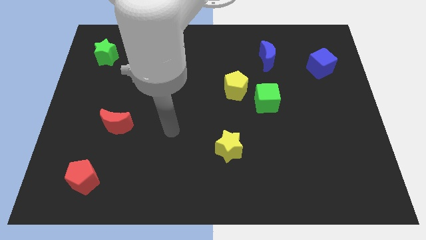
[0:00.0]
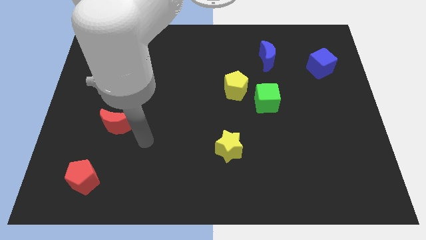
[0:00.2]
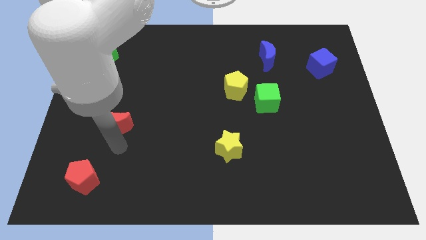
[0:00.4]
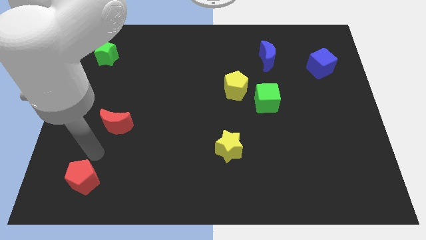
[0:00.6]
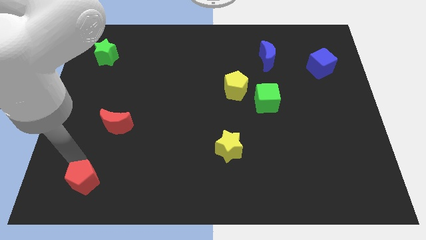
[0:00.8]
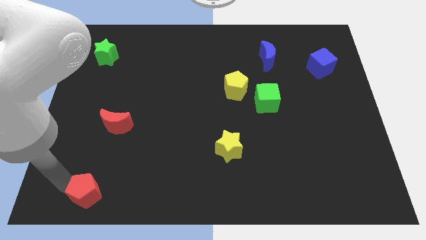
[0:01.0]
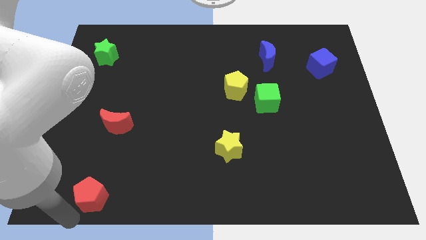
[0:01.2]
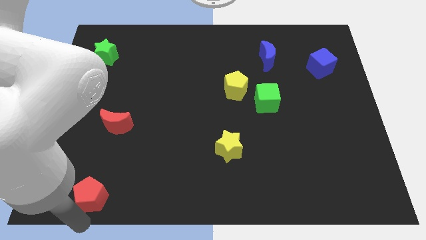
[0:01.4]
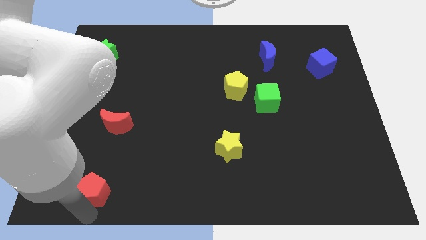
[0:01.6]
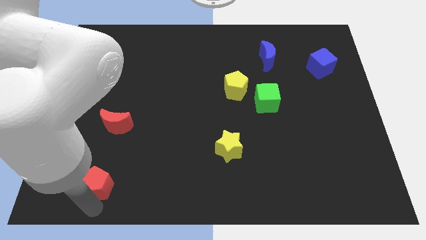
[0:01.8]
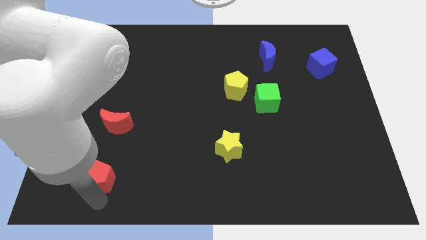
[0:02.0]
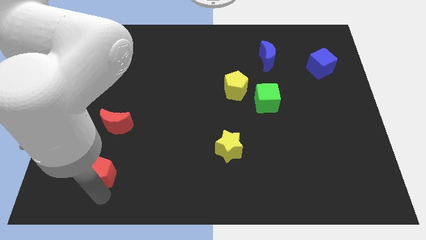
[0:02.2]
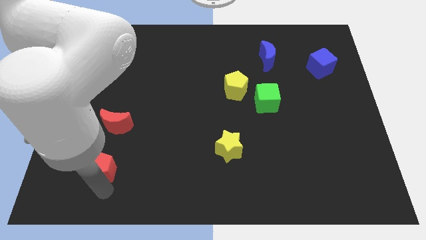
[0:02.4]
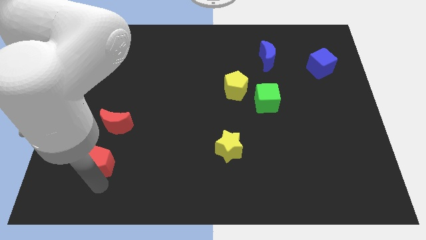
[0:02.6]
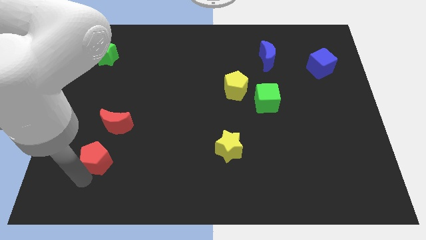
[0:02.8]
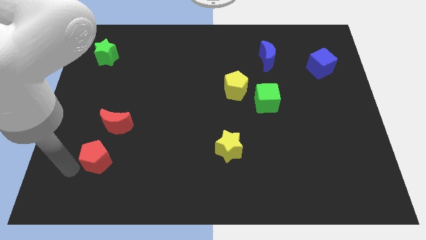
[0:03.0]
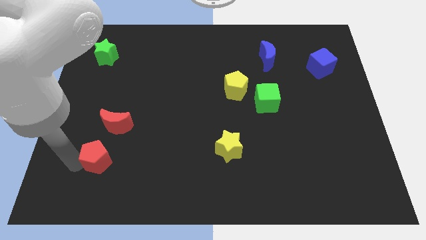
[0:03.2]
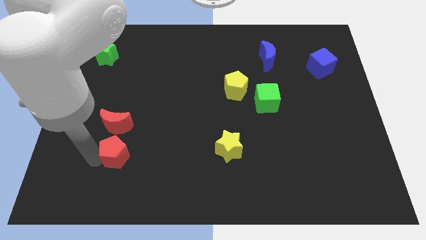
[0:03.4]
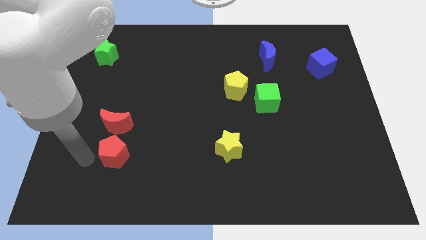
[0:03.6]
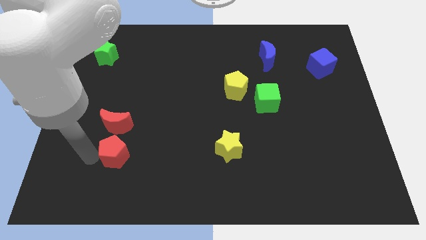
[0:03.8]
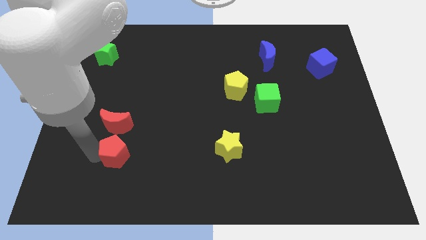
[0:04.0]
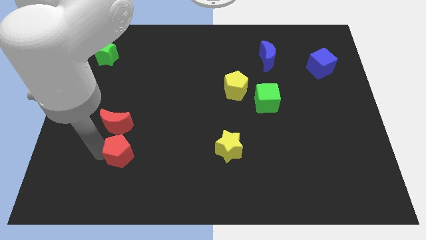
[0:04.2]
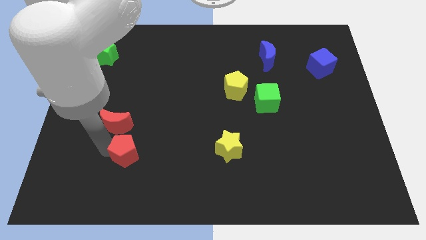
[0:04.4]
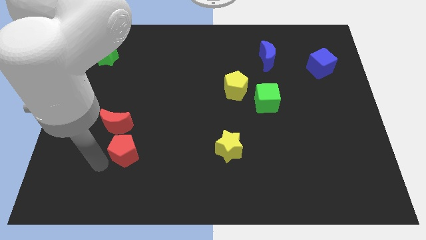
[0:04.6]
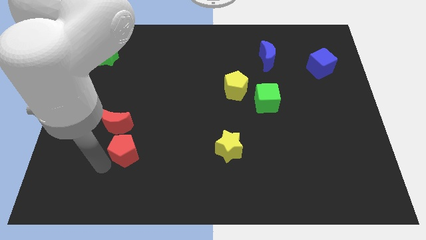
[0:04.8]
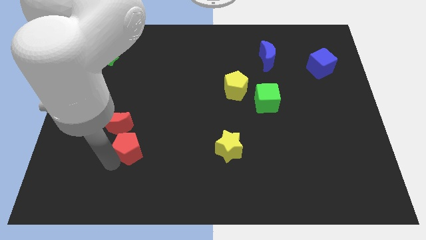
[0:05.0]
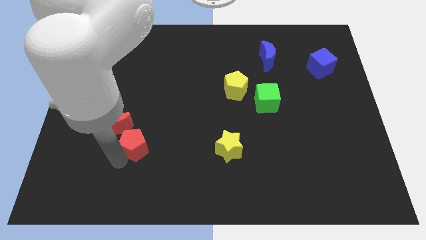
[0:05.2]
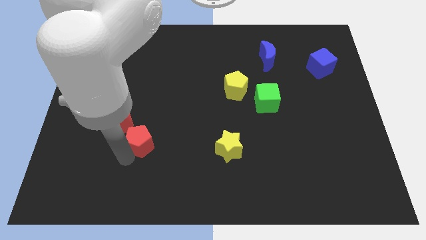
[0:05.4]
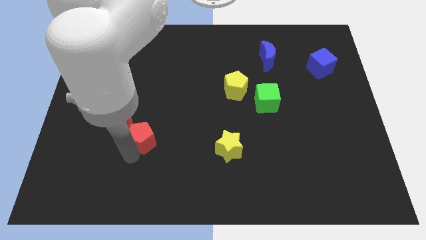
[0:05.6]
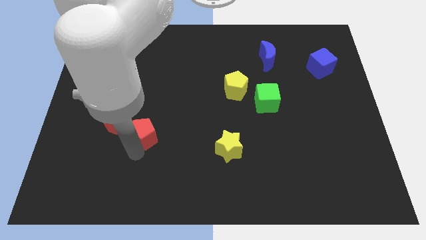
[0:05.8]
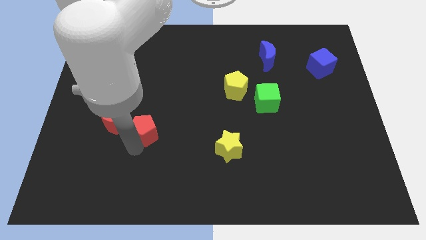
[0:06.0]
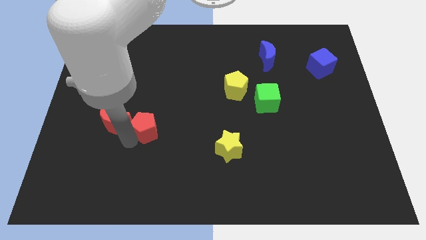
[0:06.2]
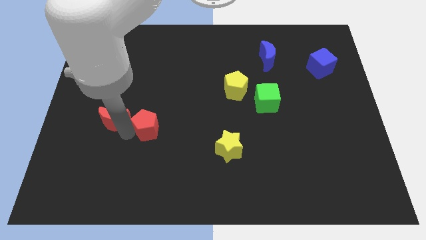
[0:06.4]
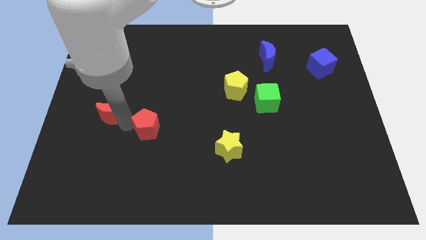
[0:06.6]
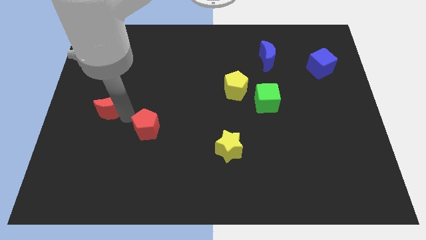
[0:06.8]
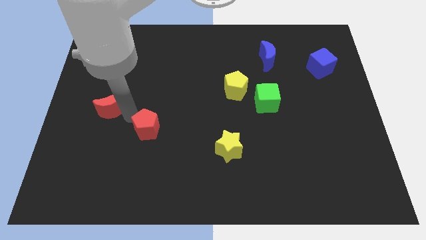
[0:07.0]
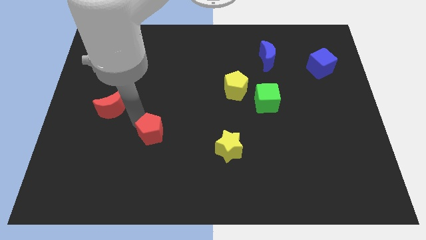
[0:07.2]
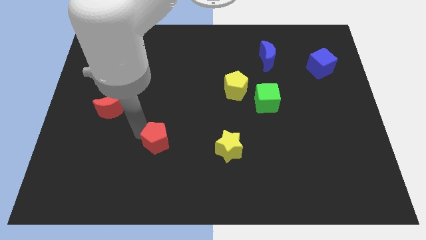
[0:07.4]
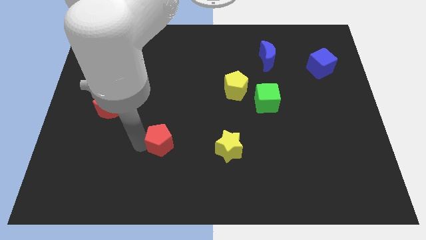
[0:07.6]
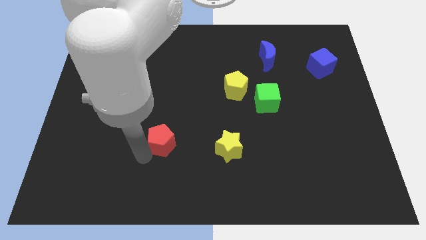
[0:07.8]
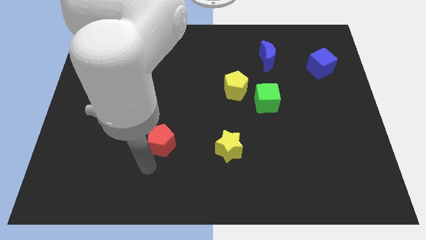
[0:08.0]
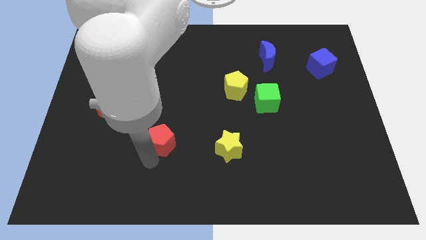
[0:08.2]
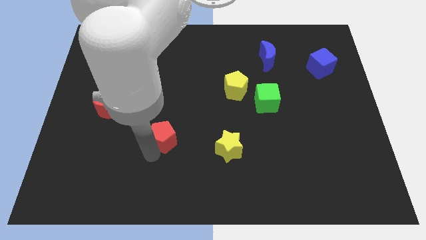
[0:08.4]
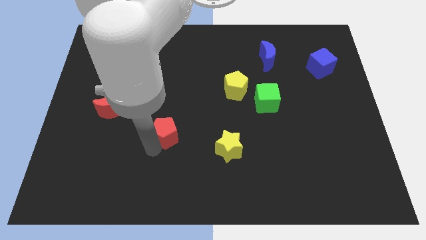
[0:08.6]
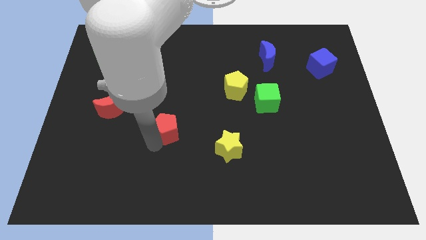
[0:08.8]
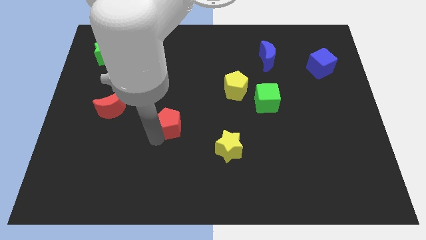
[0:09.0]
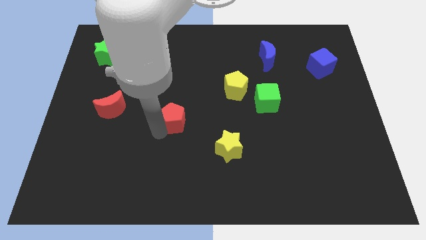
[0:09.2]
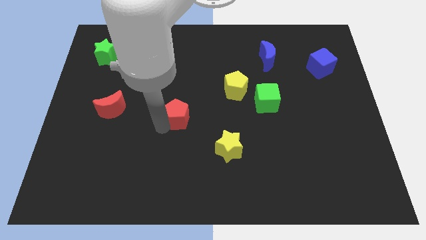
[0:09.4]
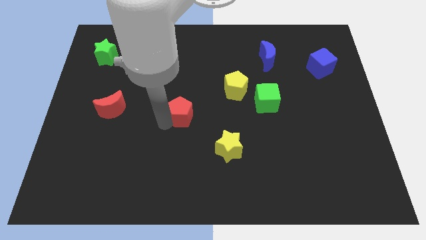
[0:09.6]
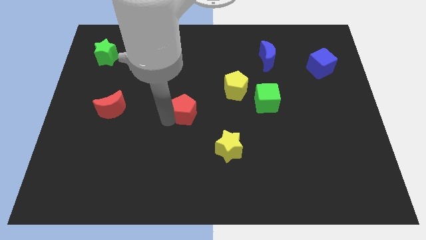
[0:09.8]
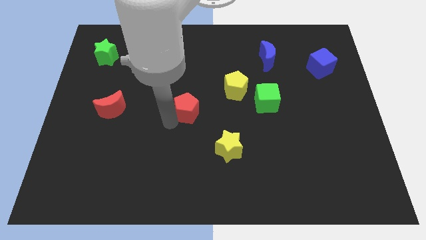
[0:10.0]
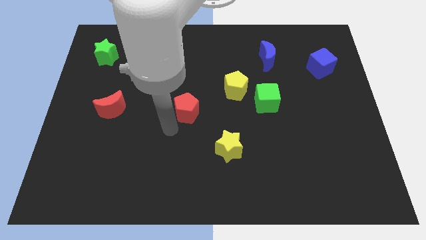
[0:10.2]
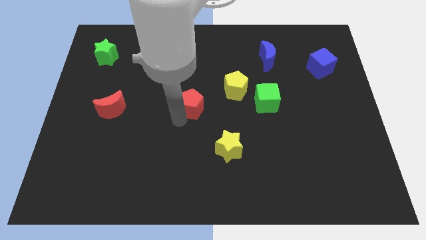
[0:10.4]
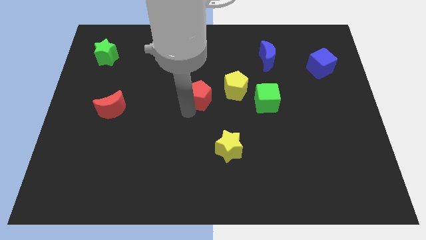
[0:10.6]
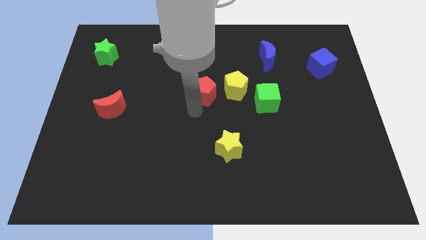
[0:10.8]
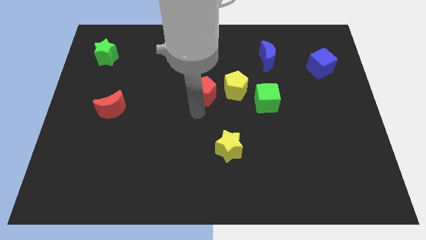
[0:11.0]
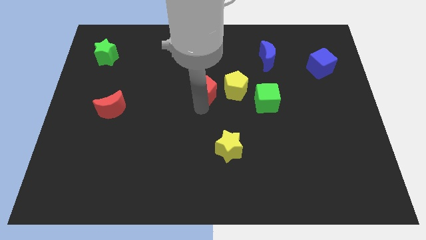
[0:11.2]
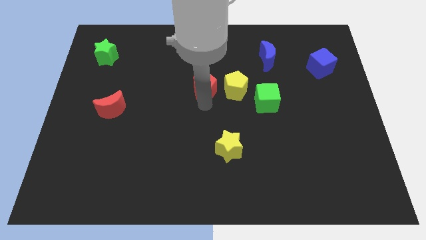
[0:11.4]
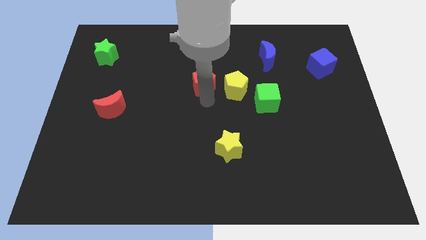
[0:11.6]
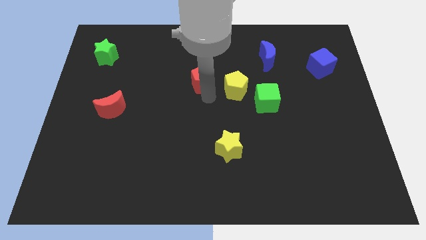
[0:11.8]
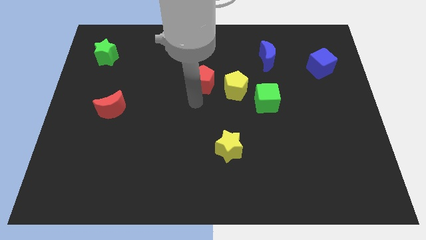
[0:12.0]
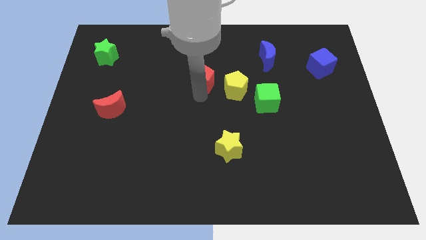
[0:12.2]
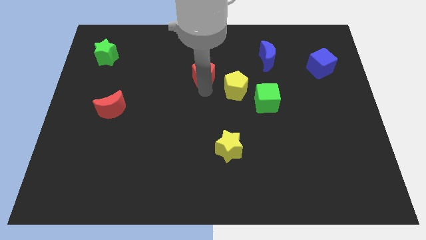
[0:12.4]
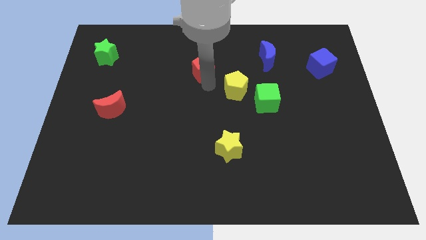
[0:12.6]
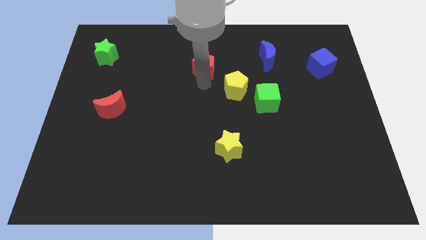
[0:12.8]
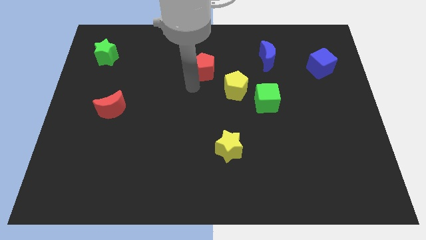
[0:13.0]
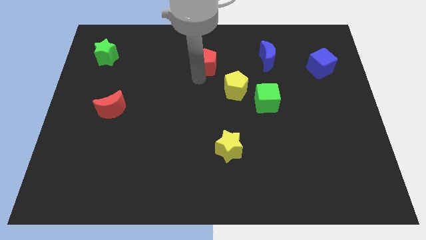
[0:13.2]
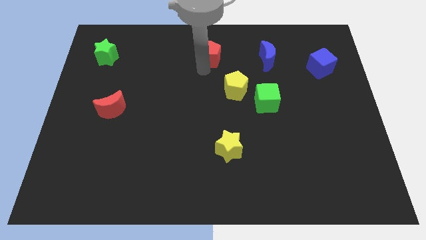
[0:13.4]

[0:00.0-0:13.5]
put the red pentagon to the towards your base
